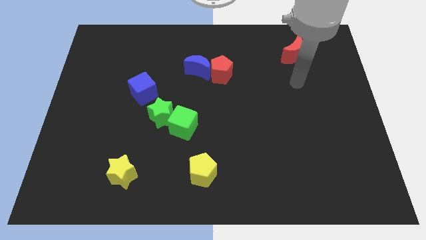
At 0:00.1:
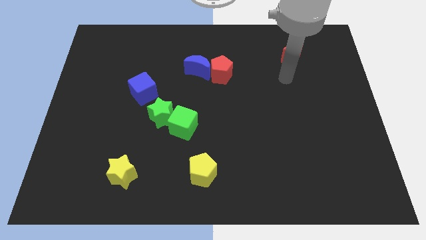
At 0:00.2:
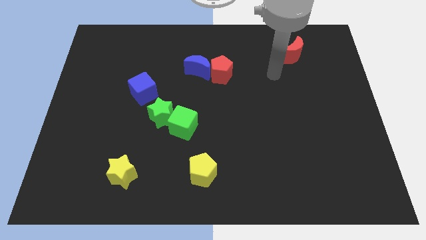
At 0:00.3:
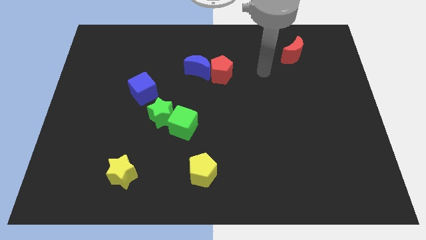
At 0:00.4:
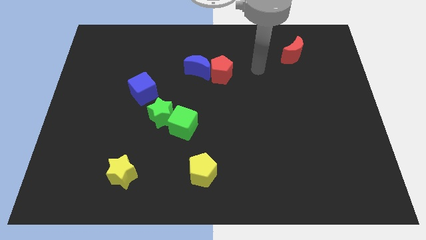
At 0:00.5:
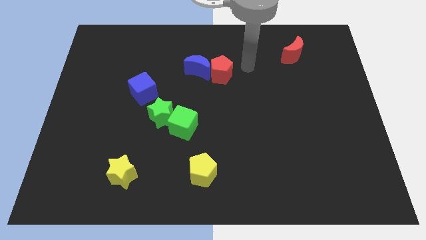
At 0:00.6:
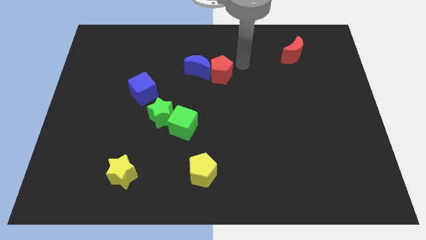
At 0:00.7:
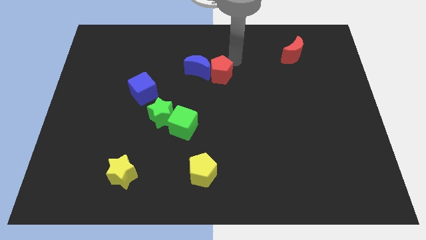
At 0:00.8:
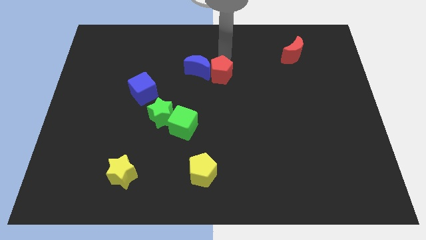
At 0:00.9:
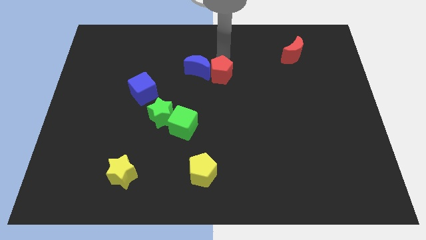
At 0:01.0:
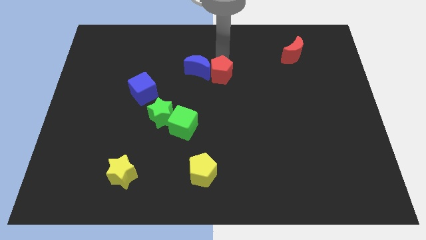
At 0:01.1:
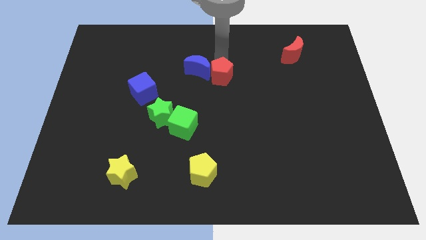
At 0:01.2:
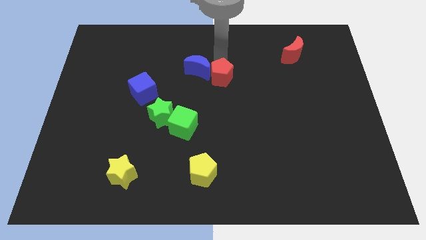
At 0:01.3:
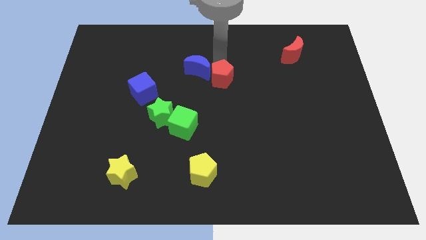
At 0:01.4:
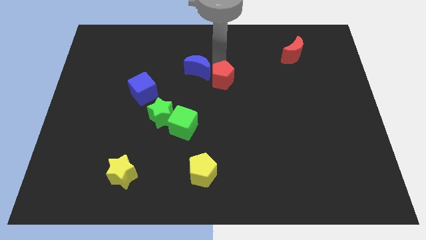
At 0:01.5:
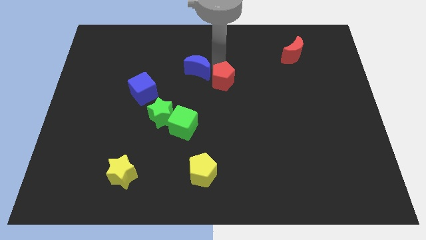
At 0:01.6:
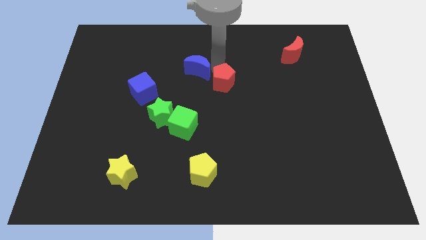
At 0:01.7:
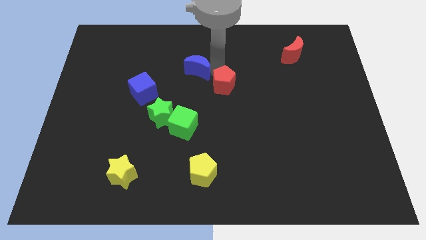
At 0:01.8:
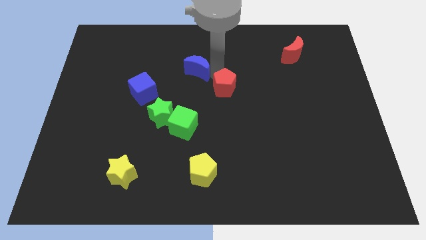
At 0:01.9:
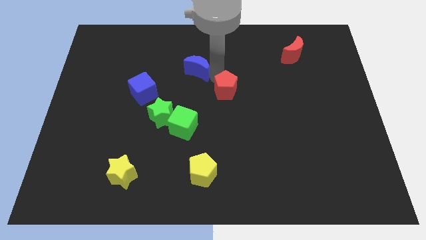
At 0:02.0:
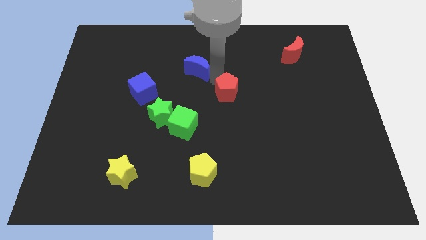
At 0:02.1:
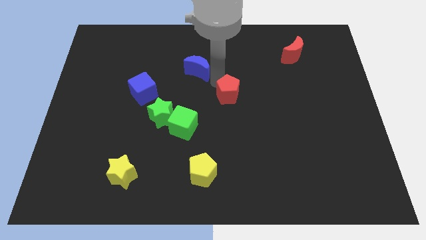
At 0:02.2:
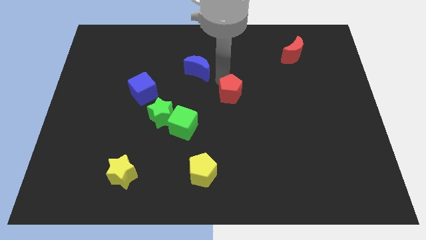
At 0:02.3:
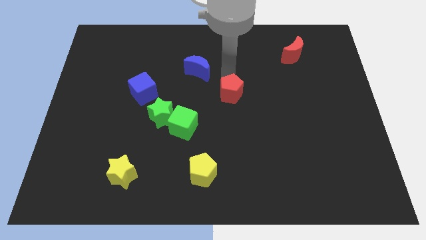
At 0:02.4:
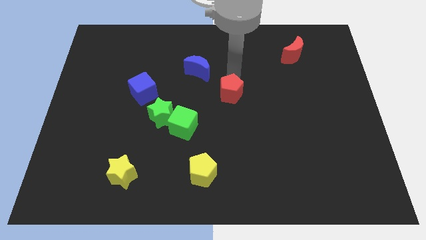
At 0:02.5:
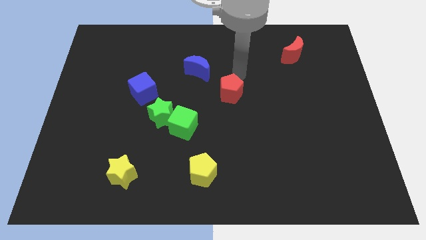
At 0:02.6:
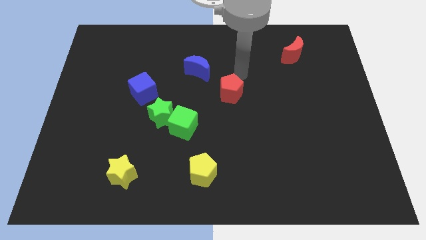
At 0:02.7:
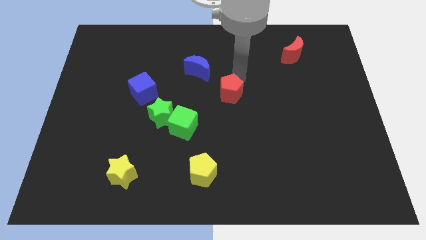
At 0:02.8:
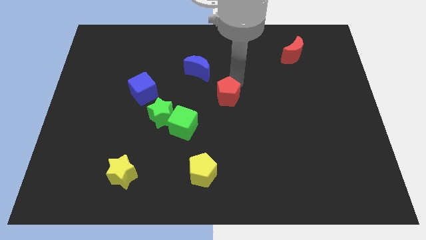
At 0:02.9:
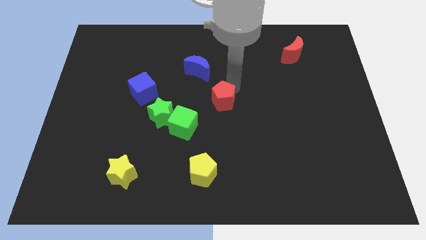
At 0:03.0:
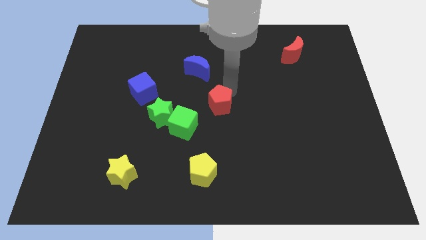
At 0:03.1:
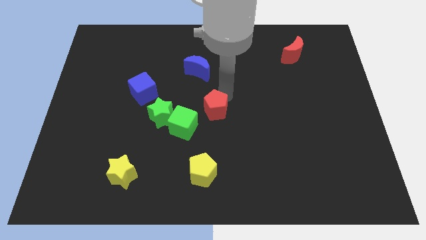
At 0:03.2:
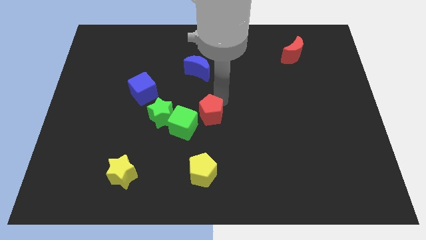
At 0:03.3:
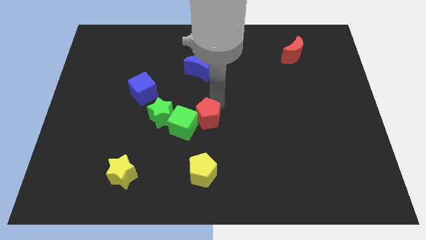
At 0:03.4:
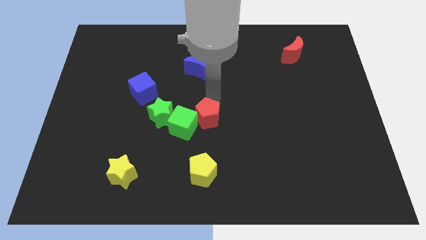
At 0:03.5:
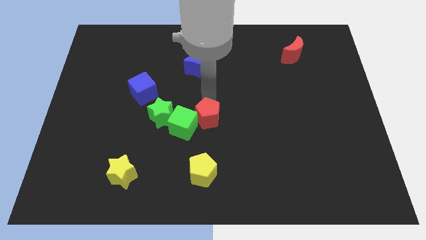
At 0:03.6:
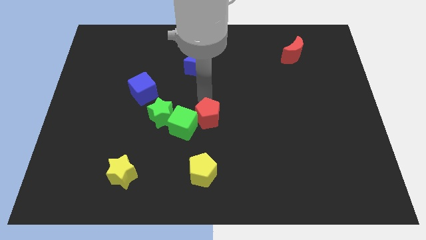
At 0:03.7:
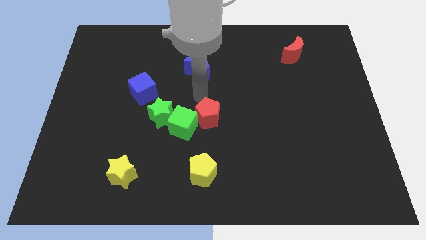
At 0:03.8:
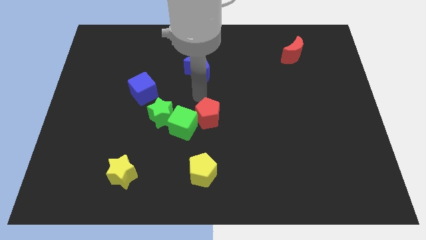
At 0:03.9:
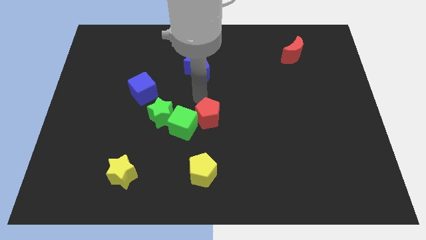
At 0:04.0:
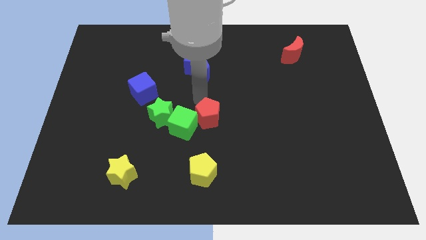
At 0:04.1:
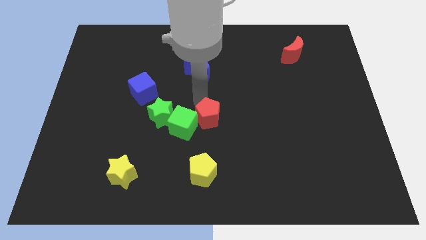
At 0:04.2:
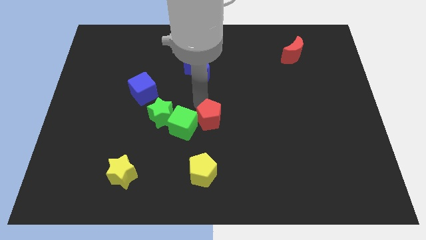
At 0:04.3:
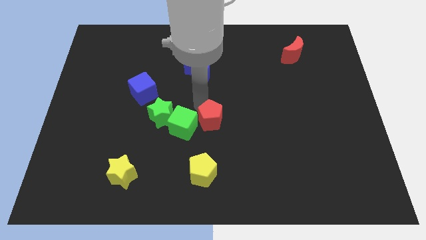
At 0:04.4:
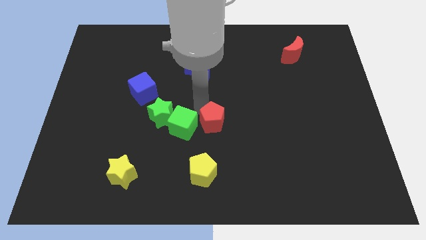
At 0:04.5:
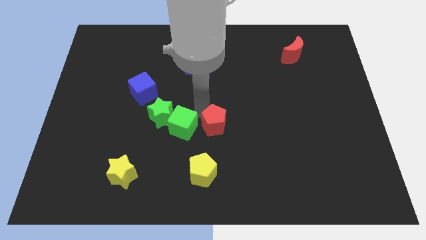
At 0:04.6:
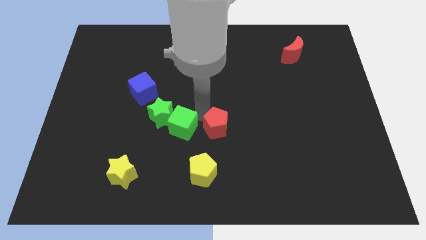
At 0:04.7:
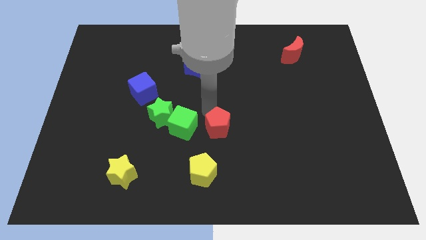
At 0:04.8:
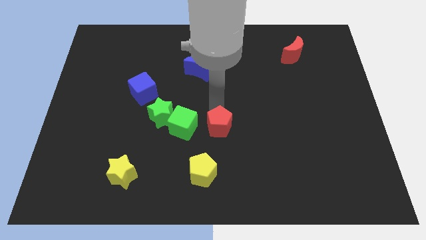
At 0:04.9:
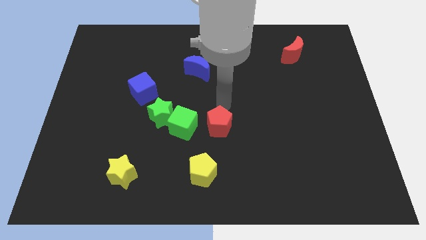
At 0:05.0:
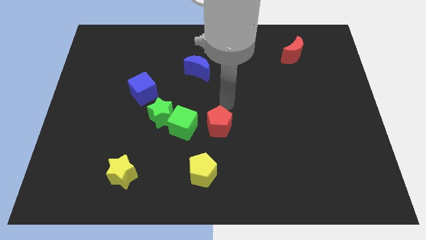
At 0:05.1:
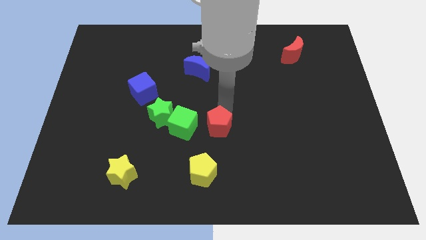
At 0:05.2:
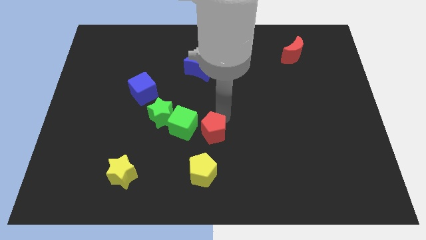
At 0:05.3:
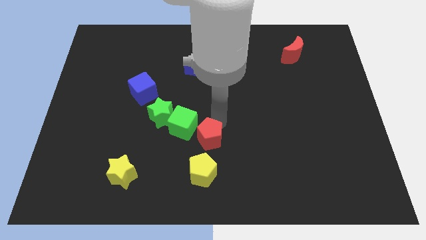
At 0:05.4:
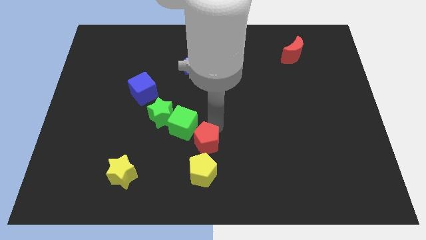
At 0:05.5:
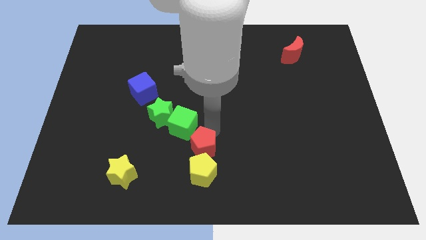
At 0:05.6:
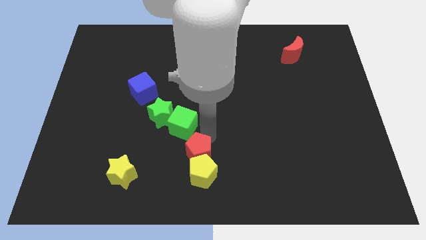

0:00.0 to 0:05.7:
put the red pentagon towards the yellow pentagon

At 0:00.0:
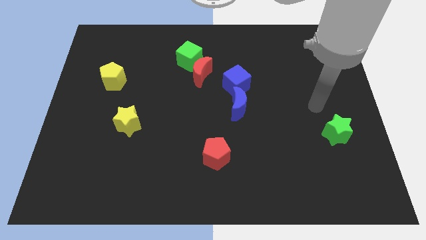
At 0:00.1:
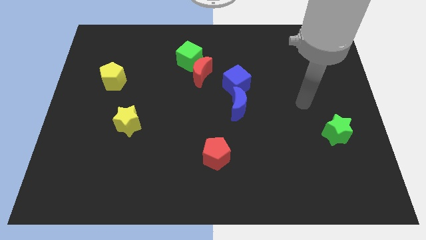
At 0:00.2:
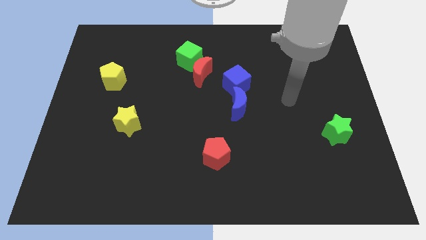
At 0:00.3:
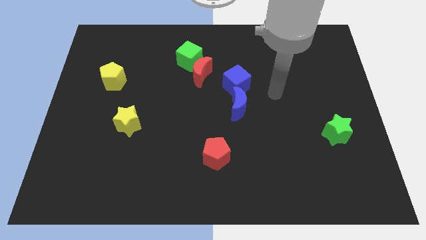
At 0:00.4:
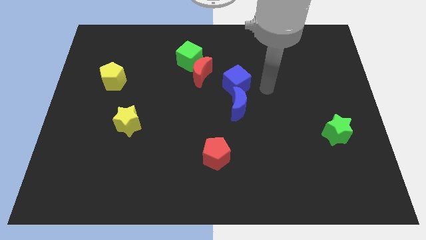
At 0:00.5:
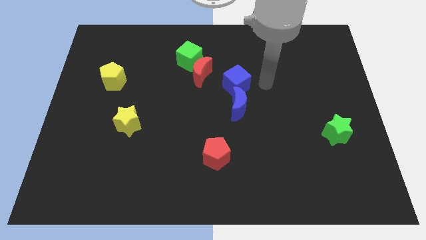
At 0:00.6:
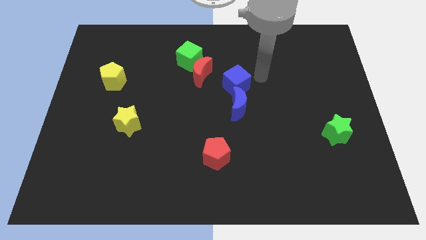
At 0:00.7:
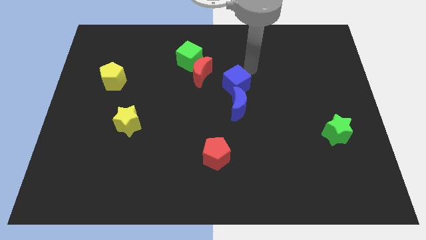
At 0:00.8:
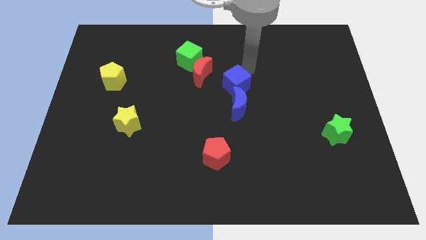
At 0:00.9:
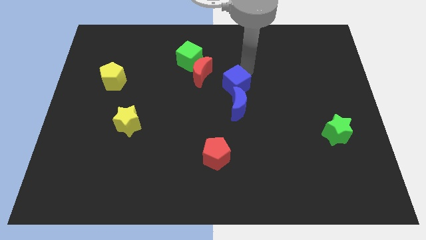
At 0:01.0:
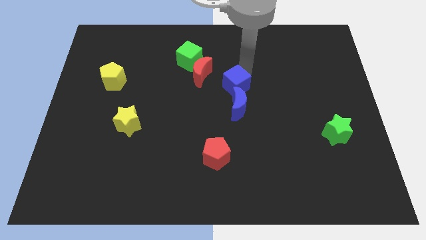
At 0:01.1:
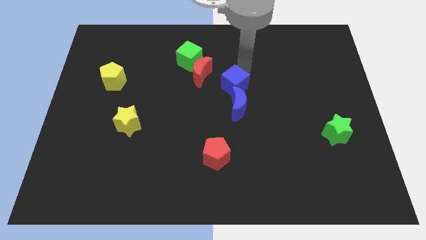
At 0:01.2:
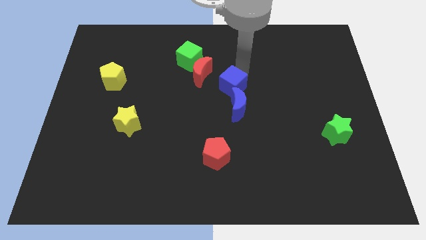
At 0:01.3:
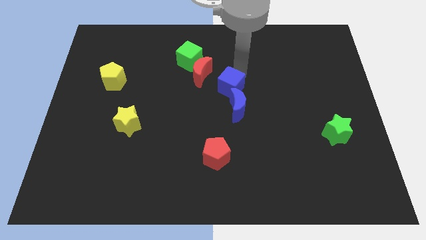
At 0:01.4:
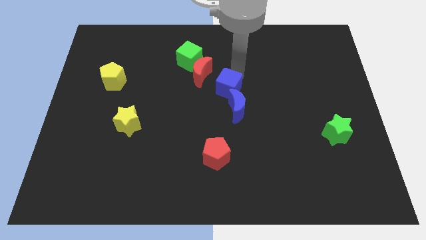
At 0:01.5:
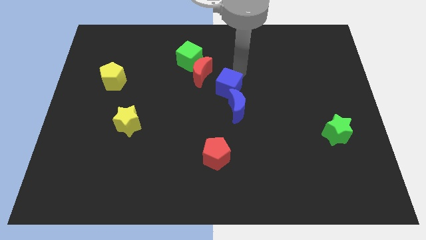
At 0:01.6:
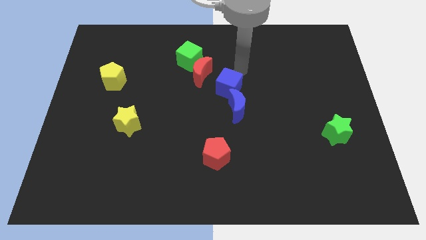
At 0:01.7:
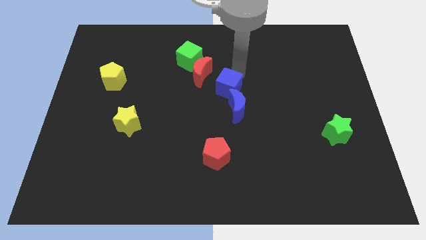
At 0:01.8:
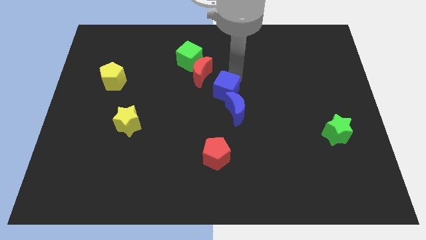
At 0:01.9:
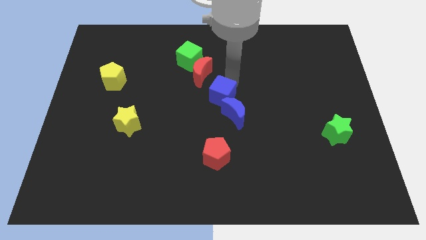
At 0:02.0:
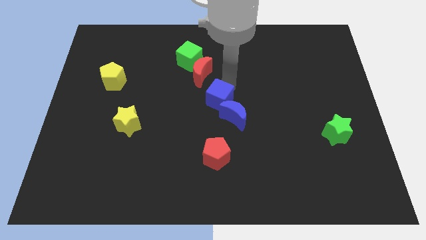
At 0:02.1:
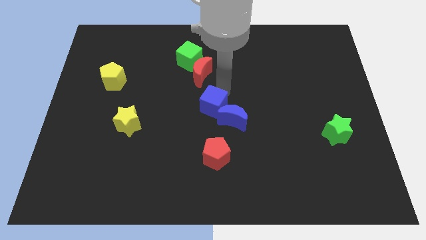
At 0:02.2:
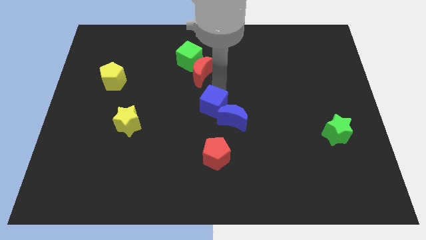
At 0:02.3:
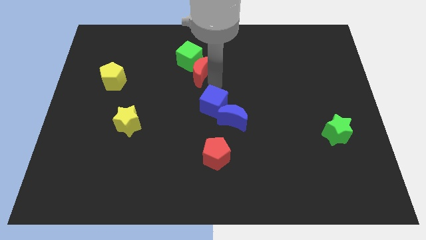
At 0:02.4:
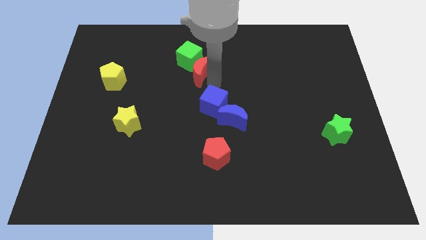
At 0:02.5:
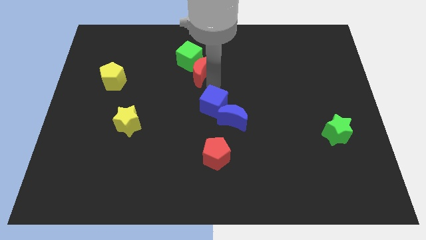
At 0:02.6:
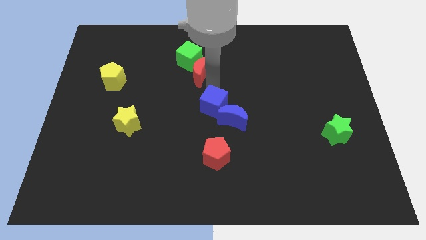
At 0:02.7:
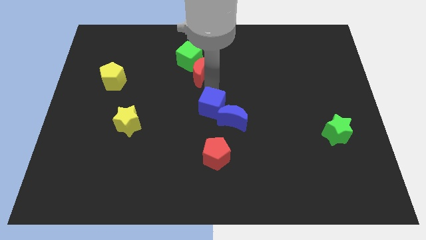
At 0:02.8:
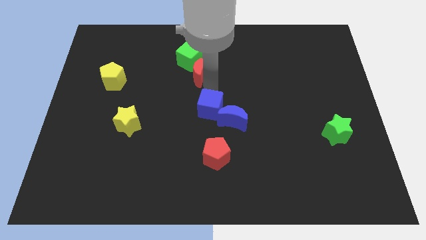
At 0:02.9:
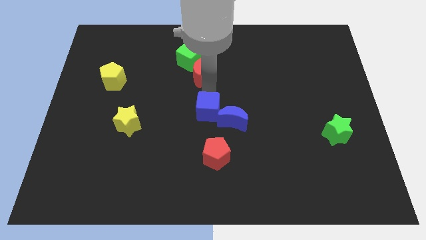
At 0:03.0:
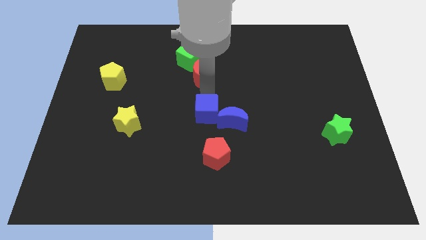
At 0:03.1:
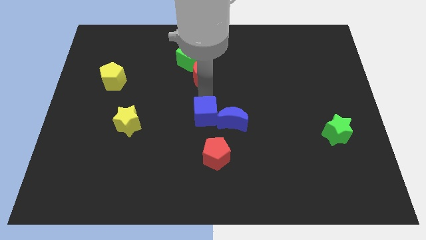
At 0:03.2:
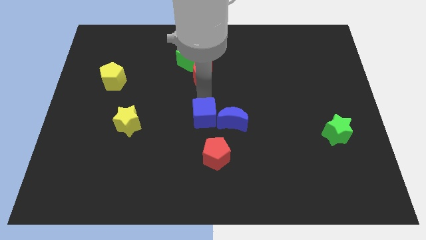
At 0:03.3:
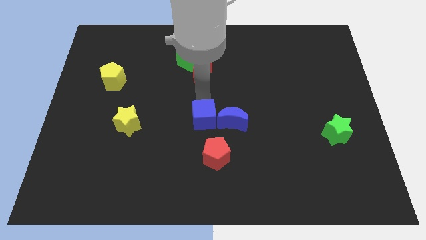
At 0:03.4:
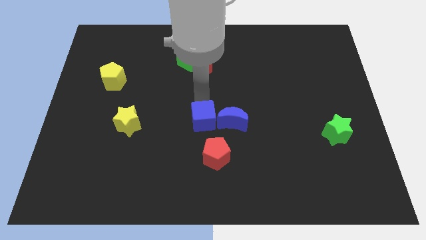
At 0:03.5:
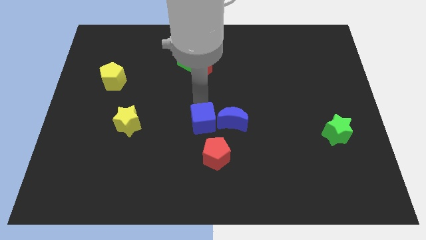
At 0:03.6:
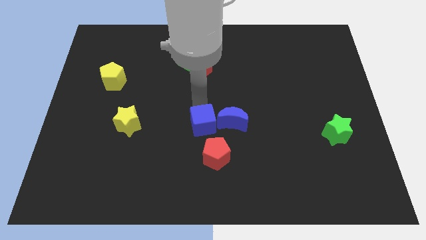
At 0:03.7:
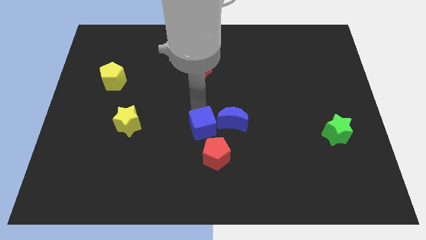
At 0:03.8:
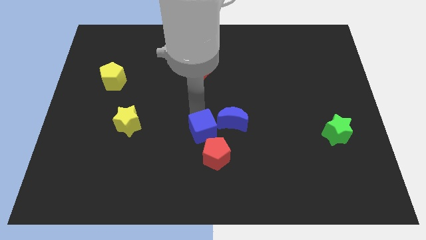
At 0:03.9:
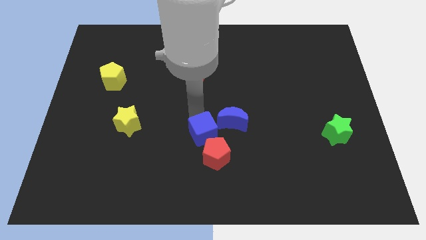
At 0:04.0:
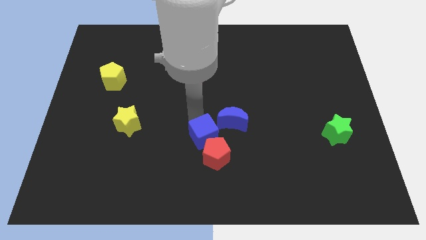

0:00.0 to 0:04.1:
push the blue cube close to the red pentagon
